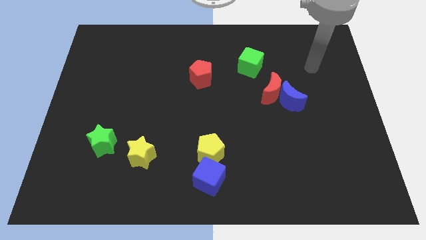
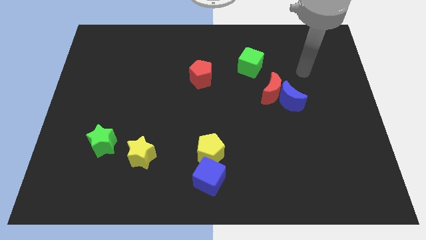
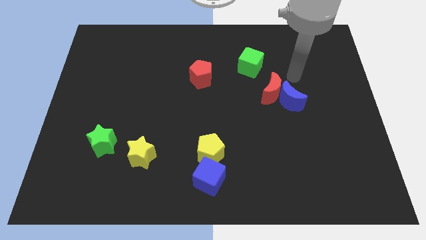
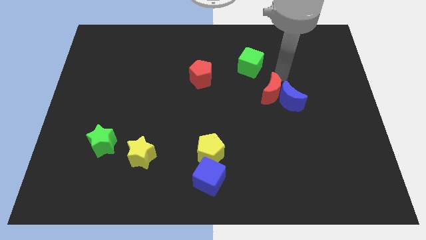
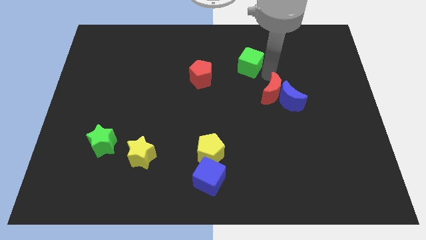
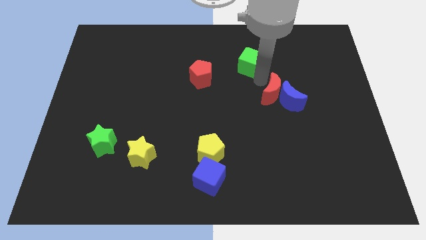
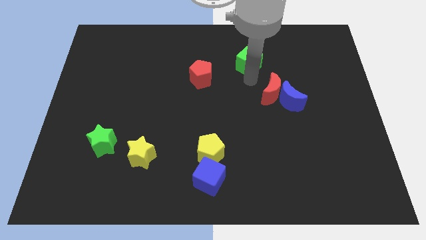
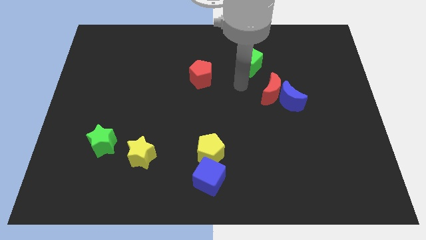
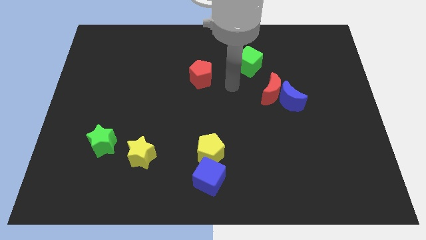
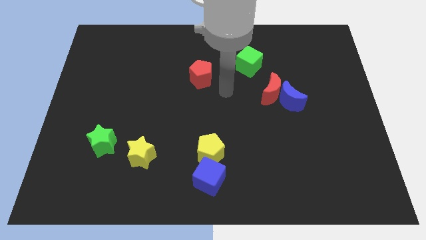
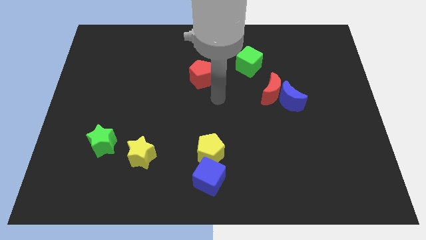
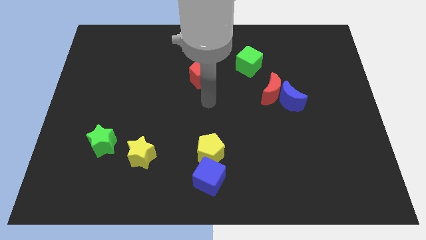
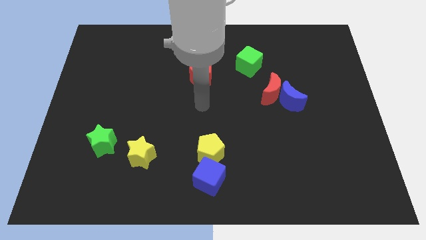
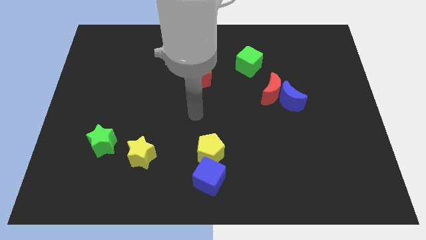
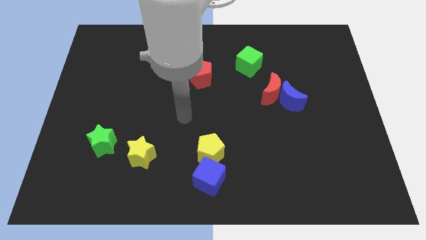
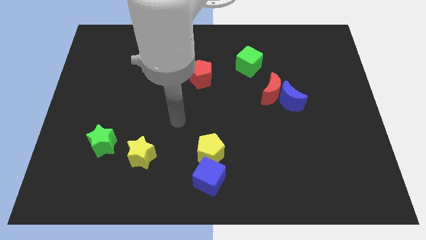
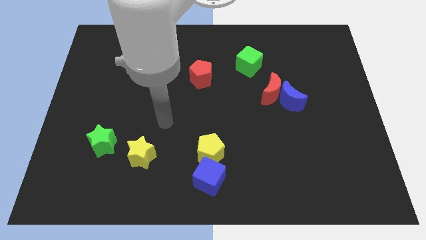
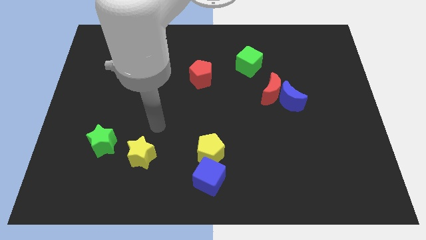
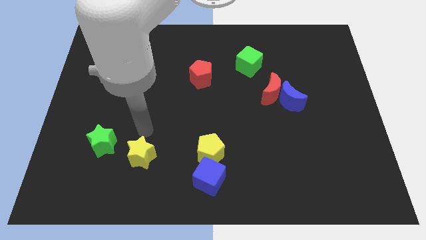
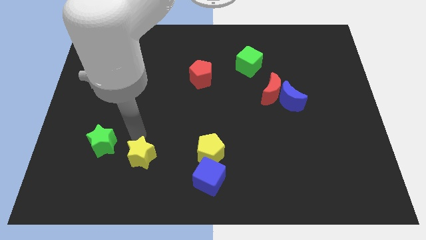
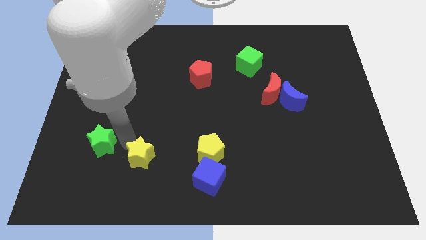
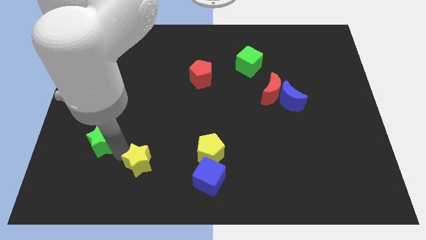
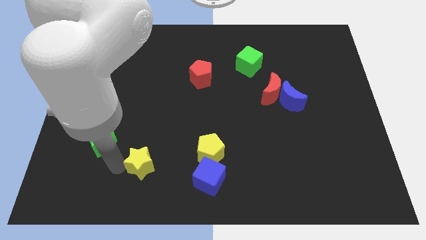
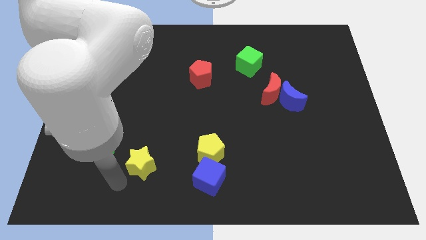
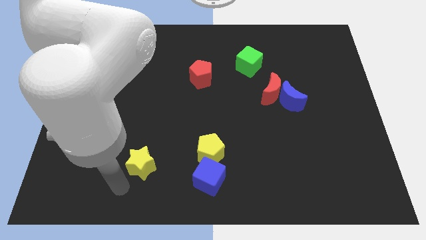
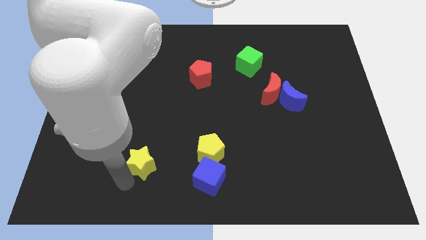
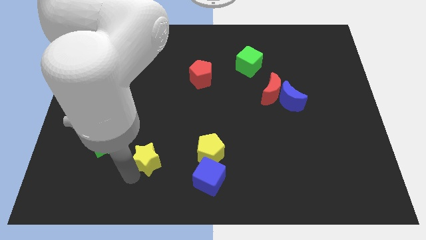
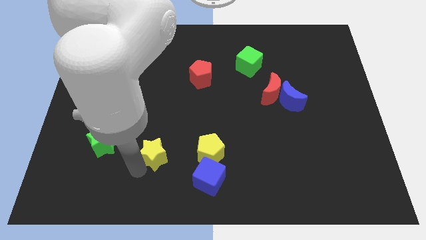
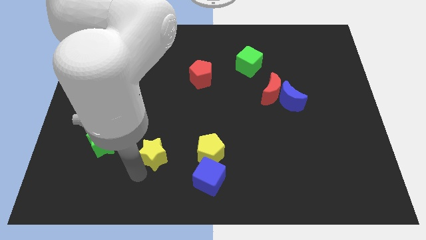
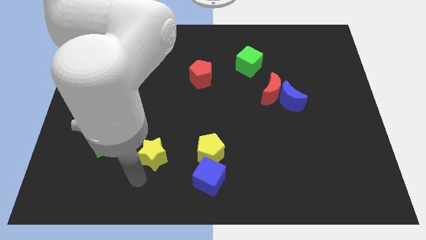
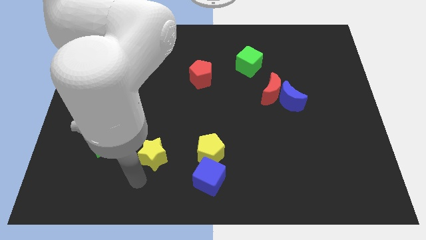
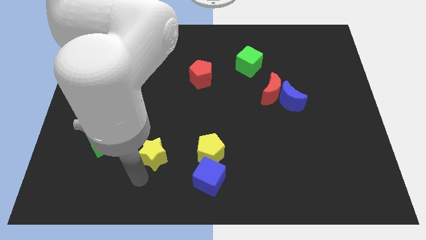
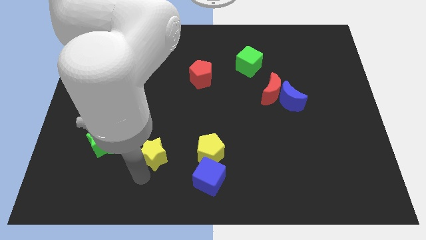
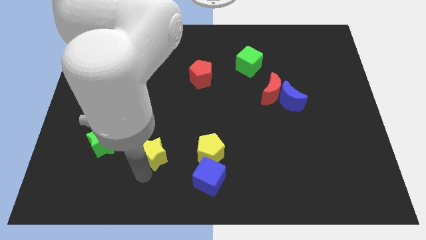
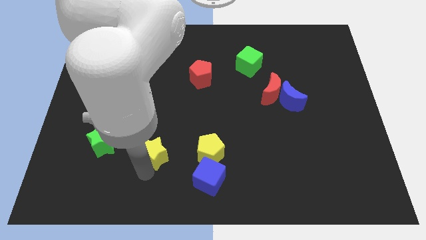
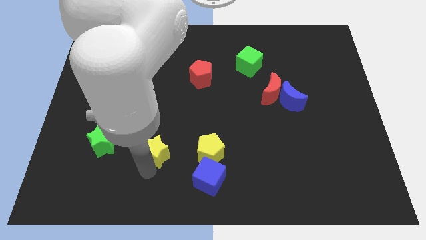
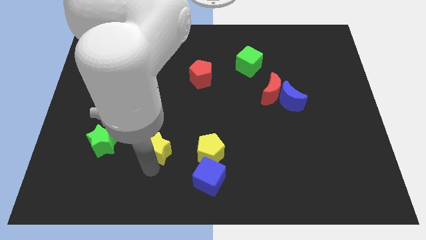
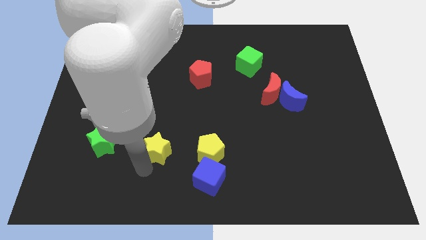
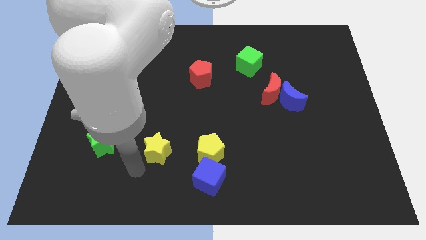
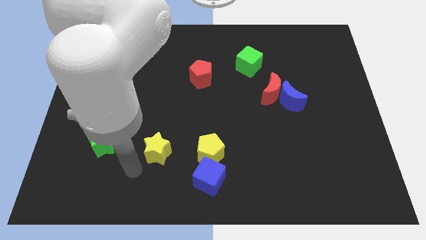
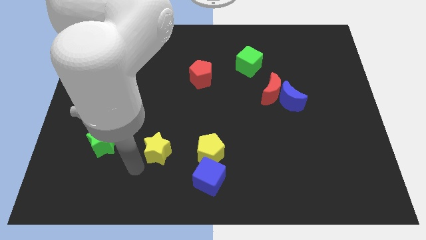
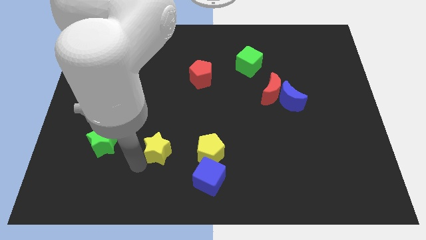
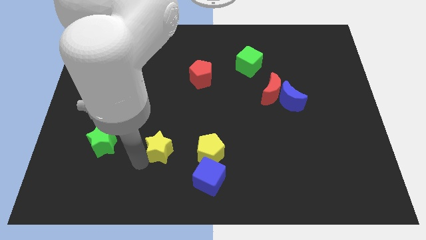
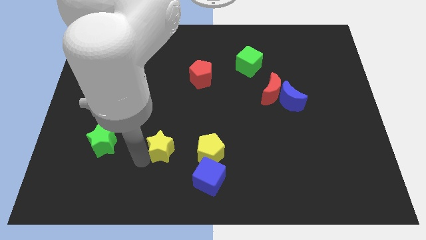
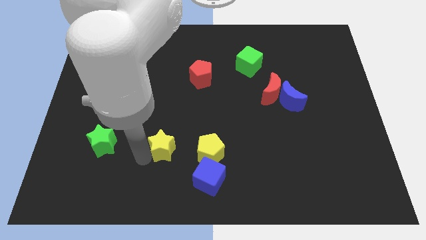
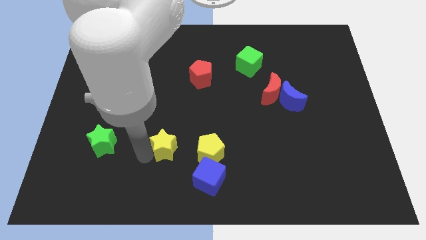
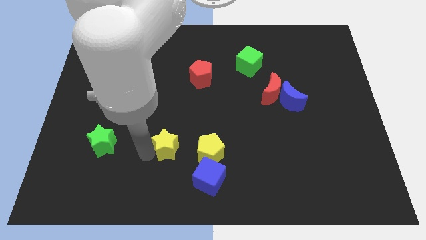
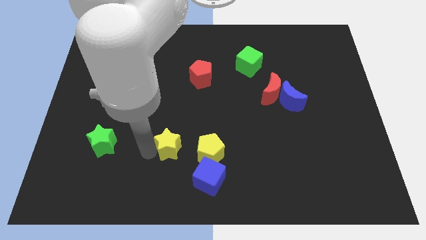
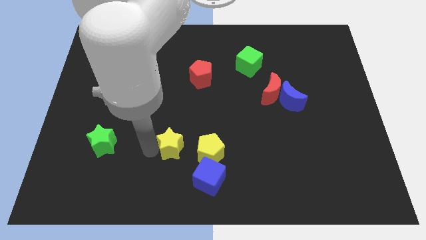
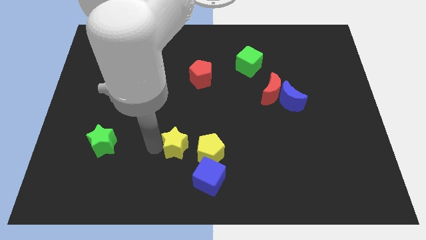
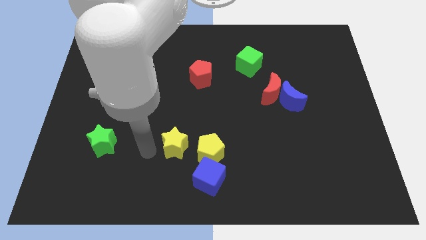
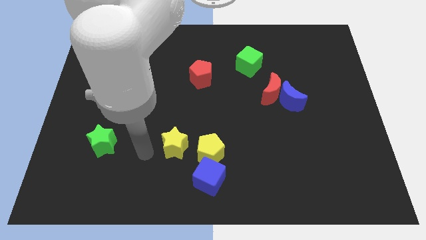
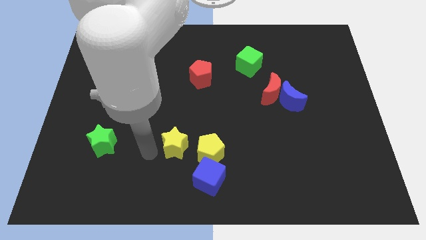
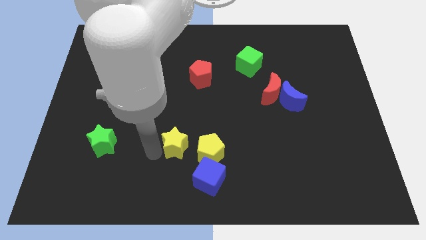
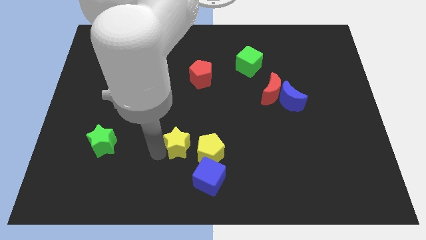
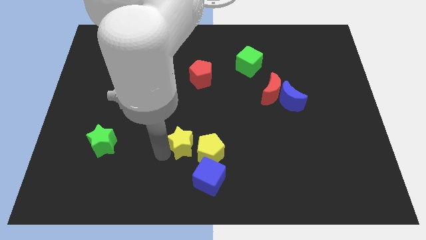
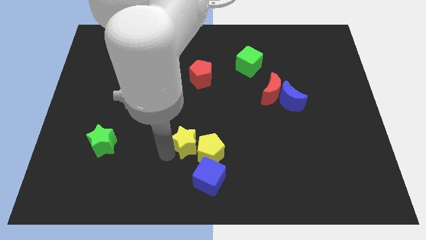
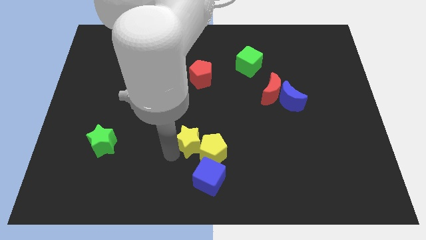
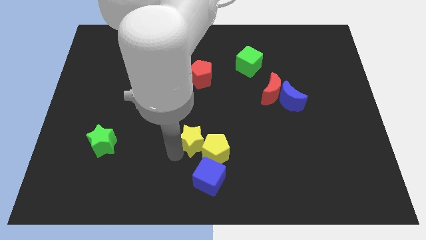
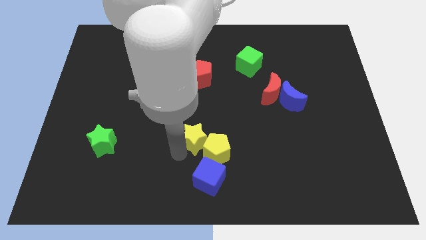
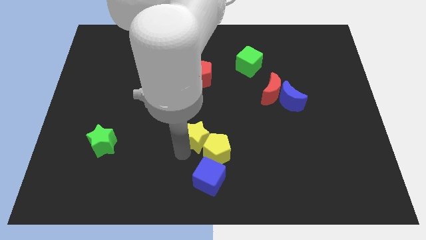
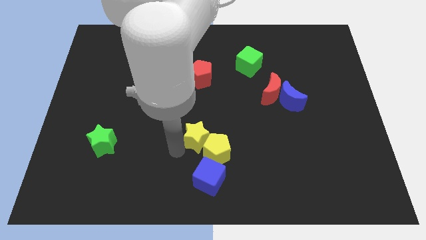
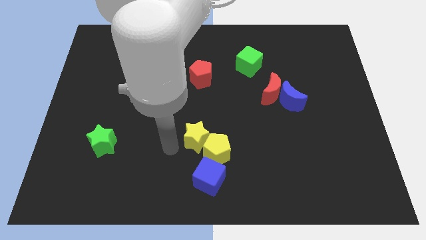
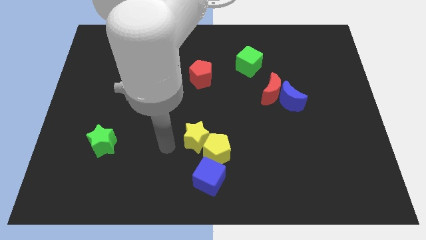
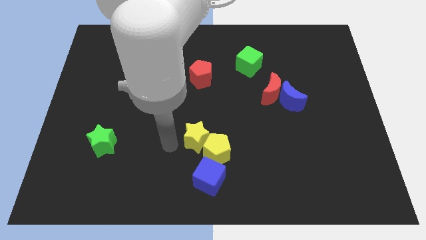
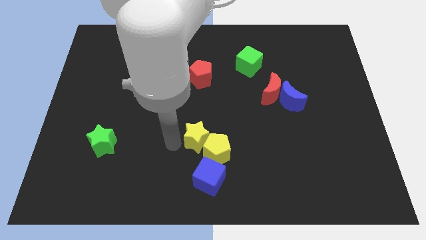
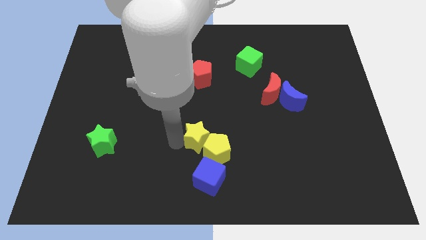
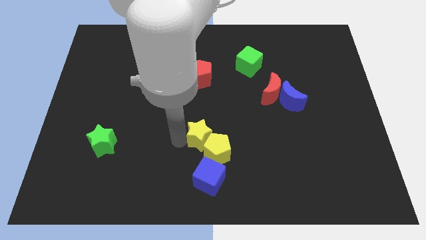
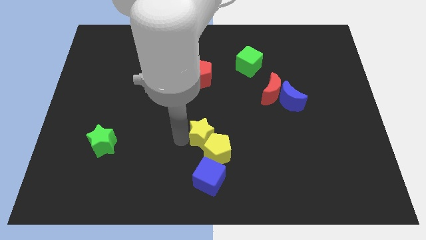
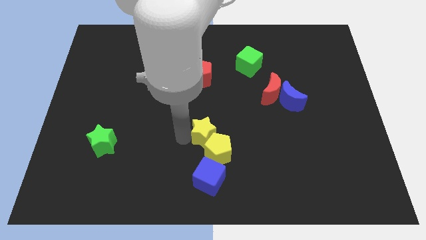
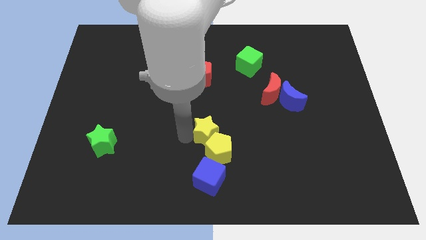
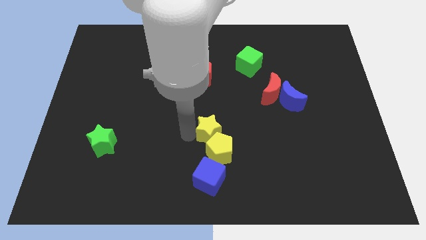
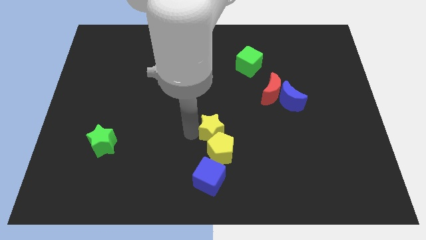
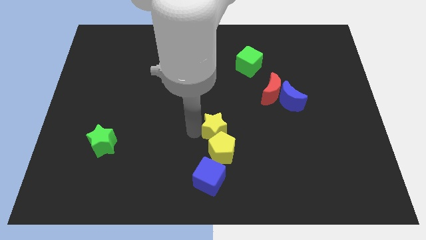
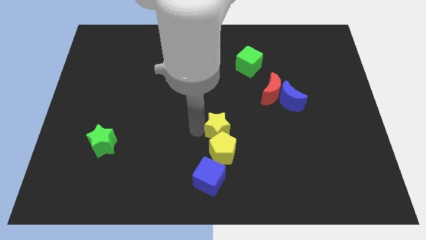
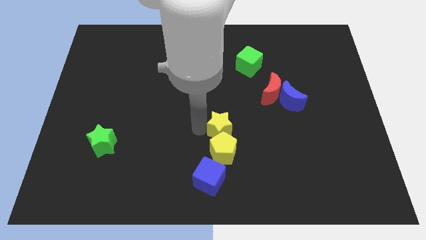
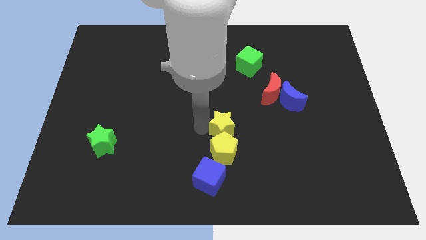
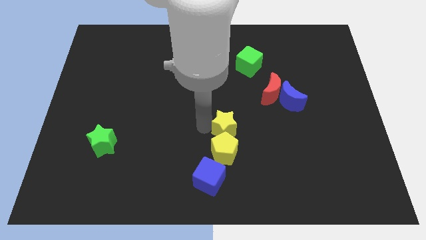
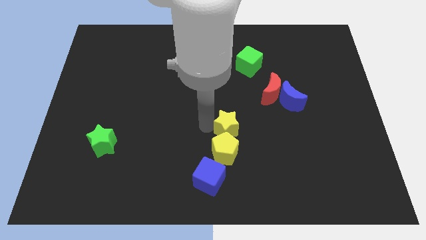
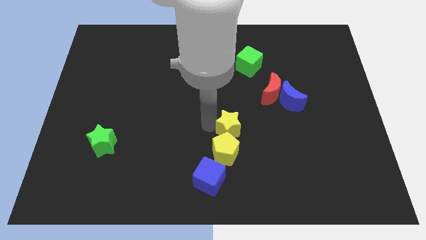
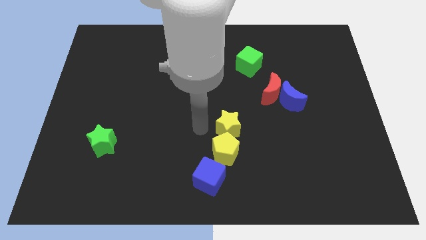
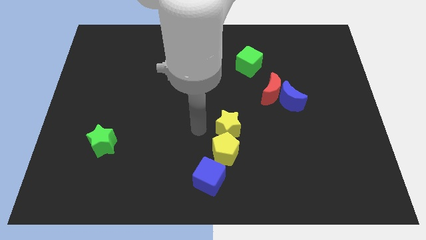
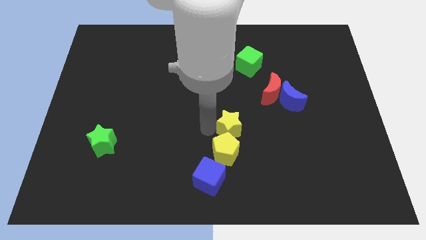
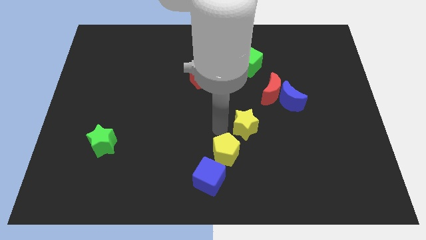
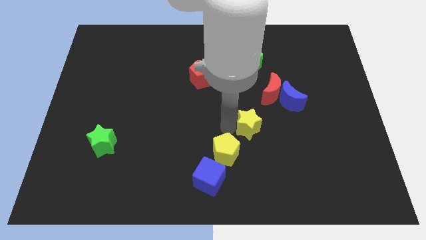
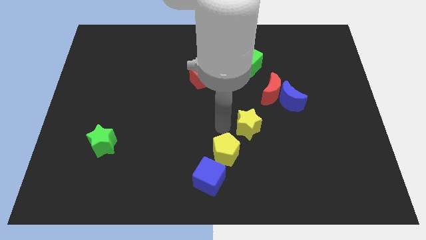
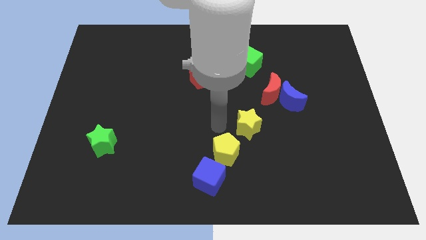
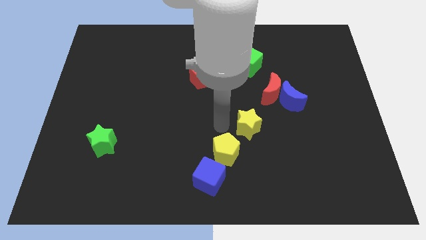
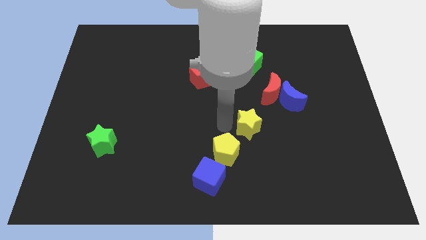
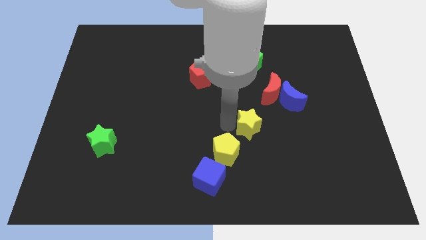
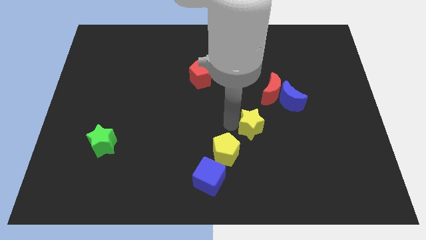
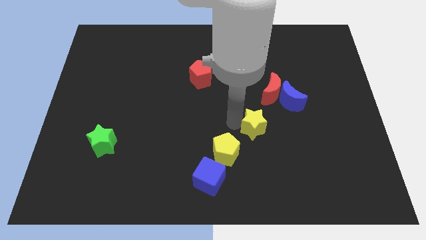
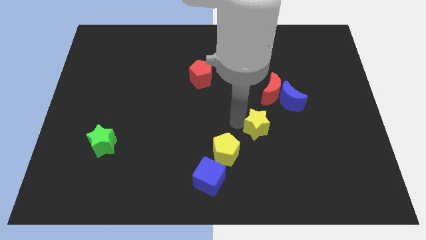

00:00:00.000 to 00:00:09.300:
move the yellow star to the bottom of the red moon
